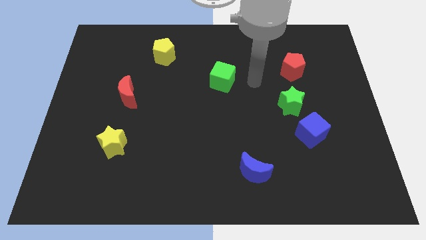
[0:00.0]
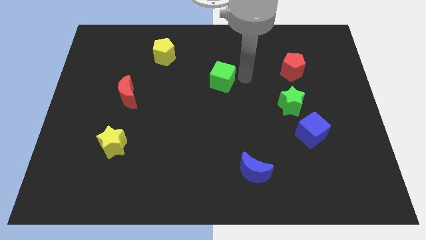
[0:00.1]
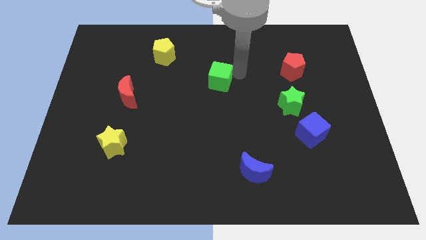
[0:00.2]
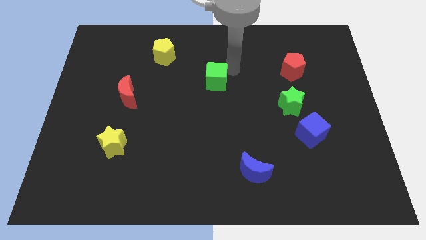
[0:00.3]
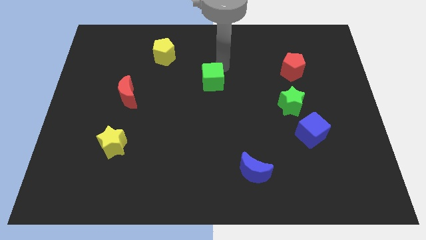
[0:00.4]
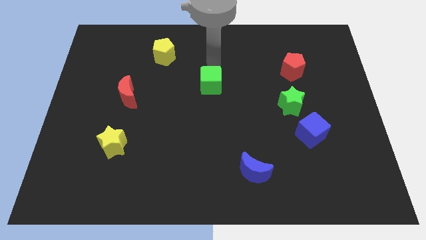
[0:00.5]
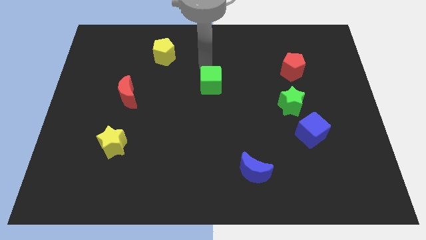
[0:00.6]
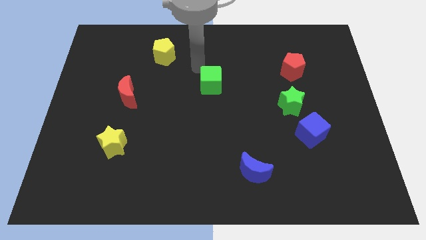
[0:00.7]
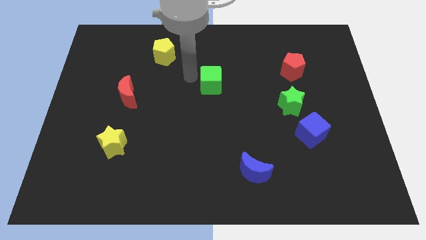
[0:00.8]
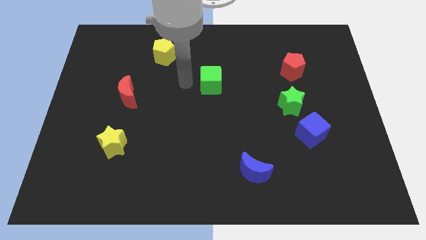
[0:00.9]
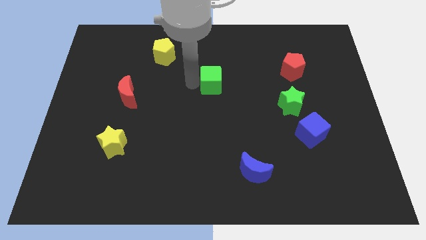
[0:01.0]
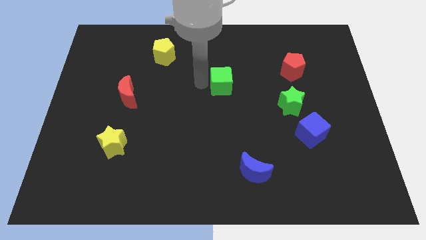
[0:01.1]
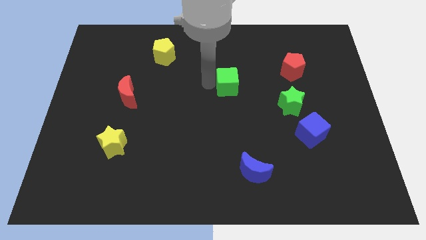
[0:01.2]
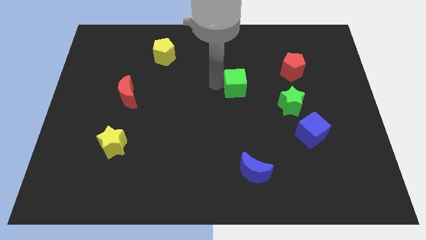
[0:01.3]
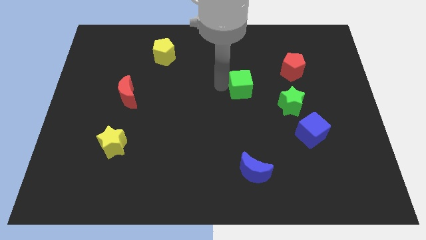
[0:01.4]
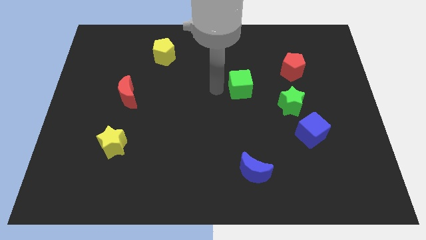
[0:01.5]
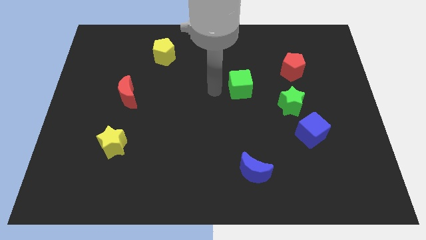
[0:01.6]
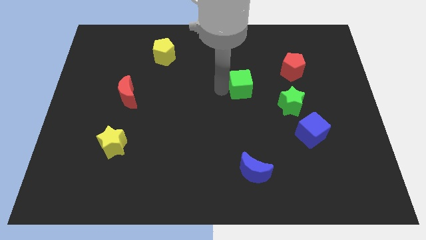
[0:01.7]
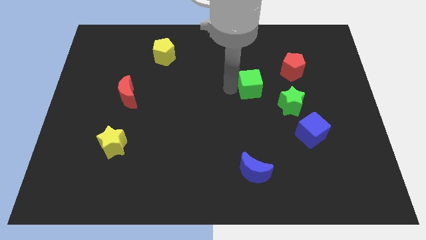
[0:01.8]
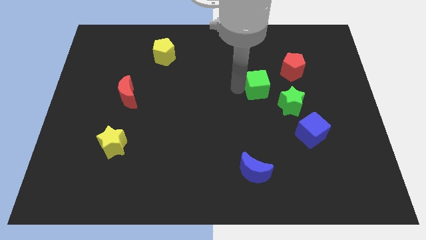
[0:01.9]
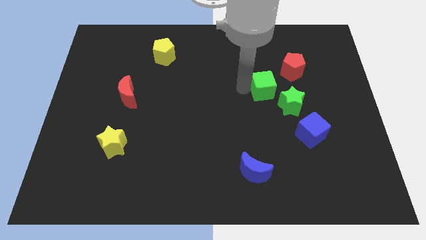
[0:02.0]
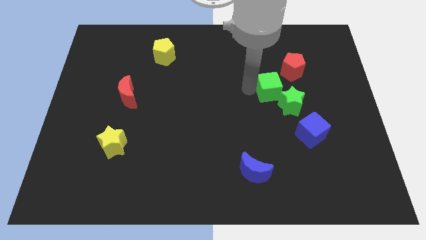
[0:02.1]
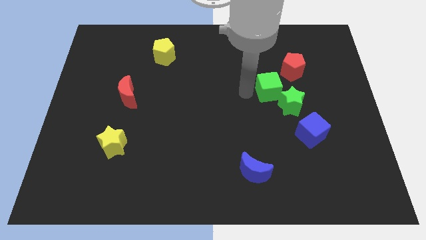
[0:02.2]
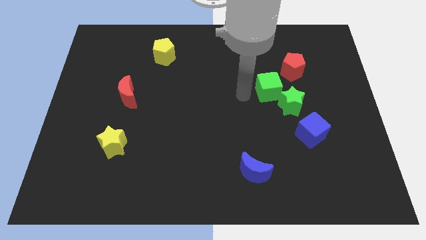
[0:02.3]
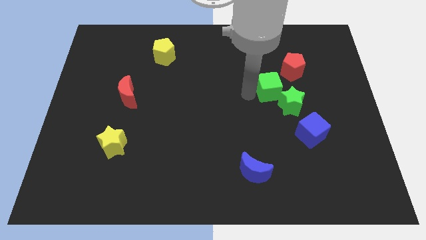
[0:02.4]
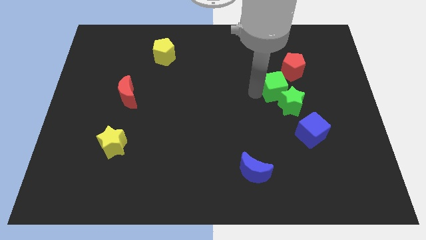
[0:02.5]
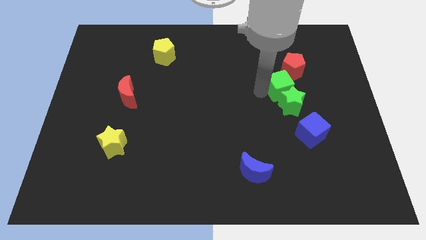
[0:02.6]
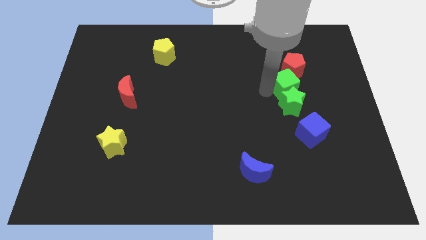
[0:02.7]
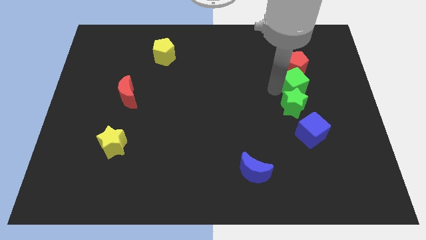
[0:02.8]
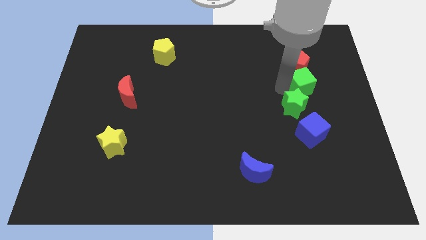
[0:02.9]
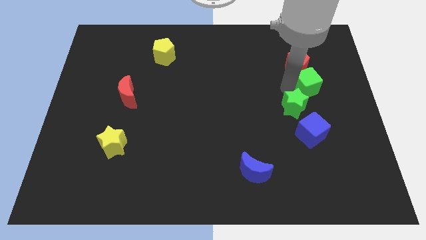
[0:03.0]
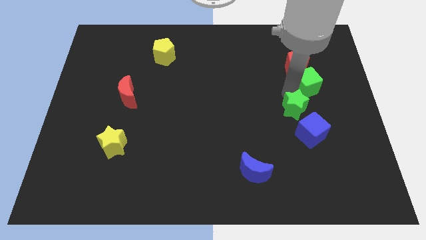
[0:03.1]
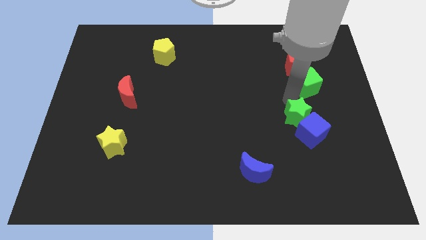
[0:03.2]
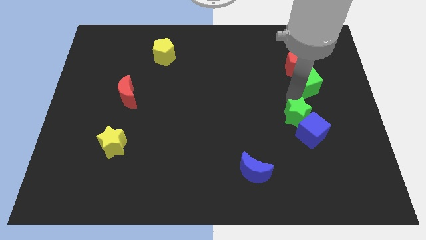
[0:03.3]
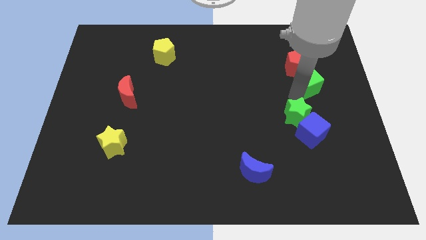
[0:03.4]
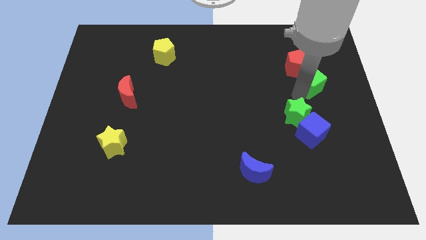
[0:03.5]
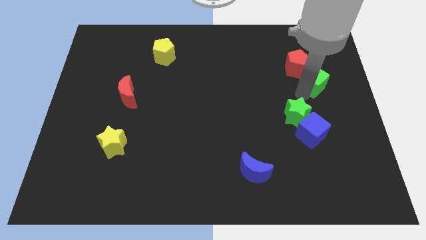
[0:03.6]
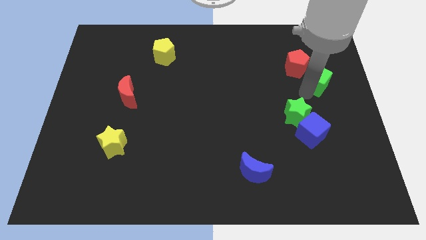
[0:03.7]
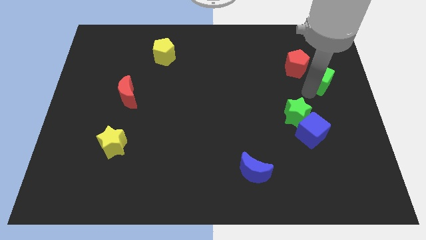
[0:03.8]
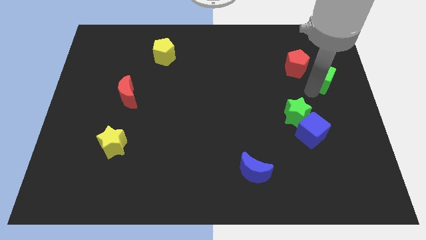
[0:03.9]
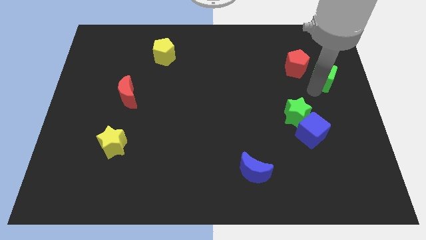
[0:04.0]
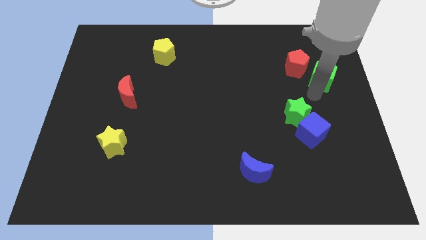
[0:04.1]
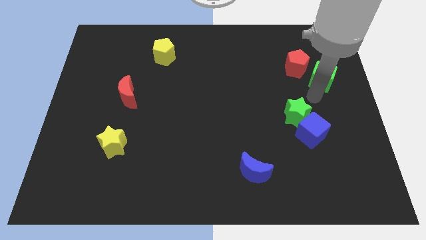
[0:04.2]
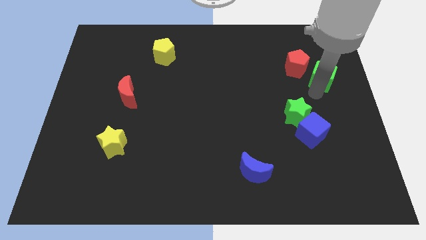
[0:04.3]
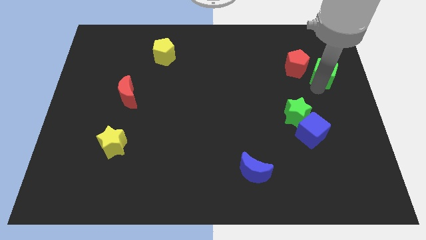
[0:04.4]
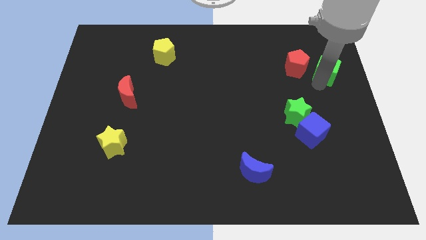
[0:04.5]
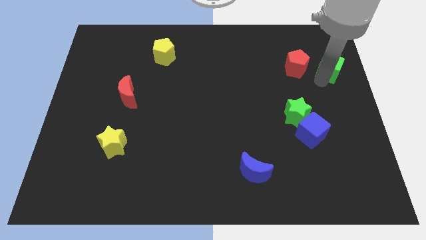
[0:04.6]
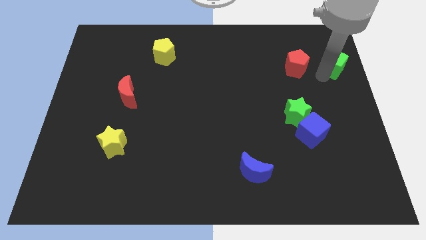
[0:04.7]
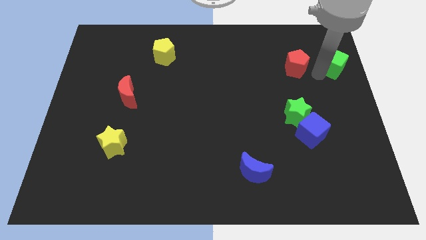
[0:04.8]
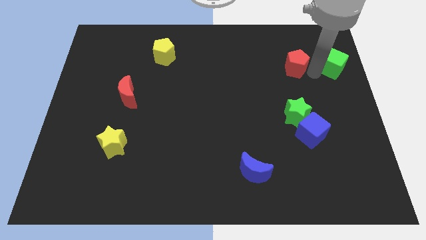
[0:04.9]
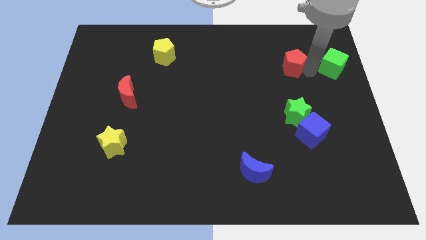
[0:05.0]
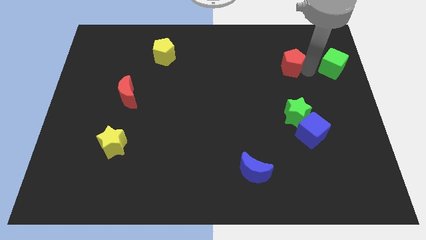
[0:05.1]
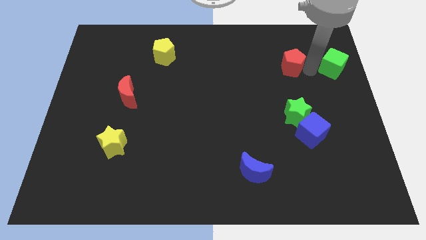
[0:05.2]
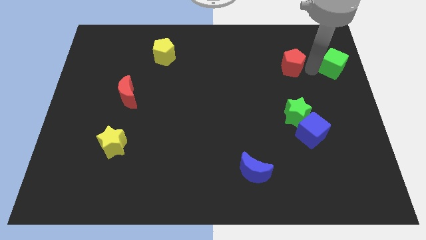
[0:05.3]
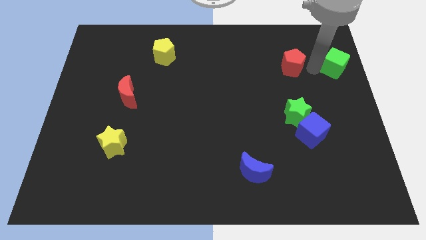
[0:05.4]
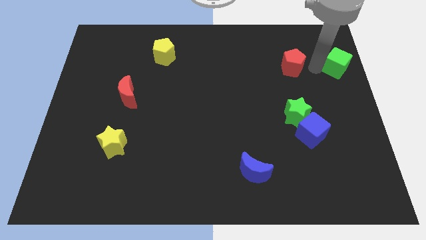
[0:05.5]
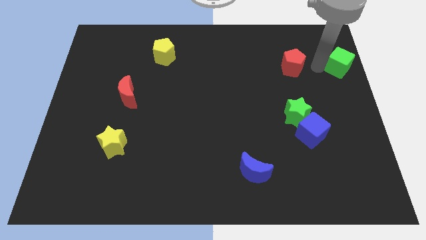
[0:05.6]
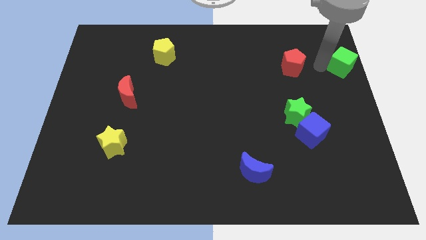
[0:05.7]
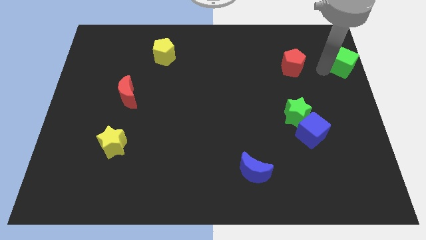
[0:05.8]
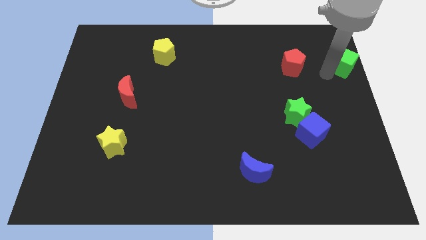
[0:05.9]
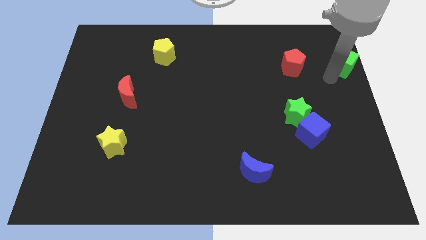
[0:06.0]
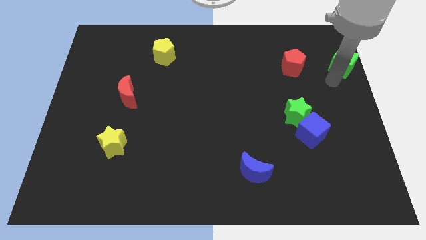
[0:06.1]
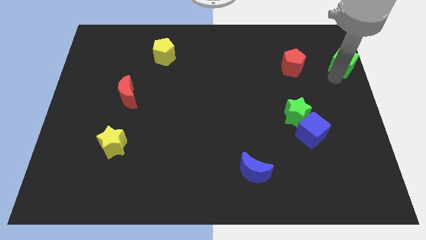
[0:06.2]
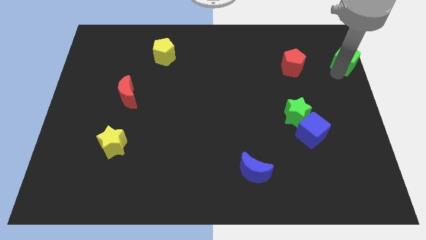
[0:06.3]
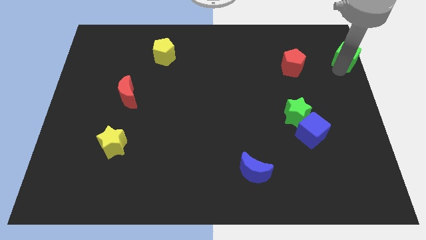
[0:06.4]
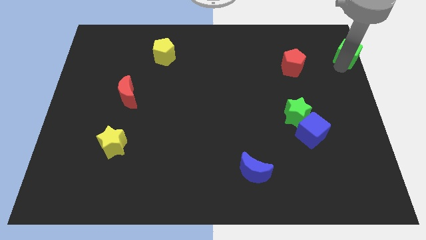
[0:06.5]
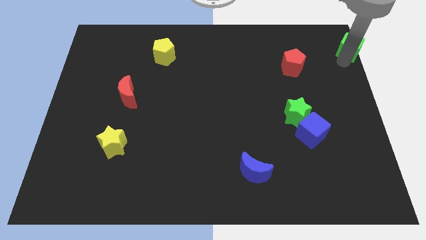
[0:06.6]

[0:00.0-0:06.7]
put the green cube to the top right corner
